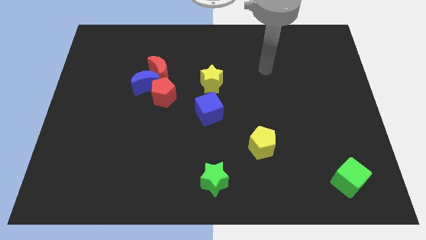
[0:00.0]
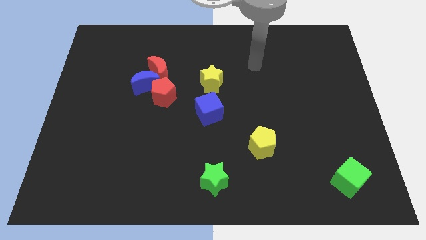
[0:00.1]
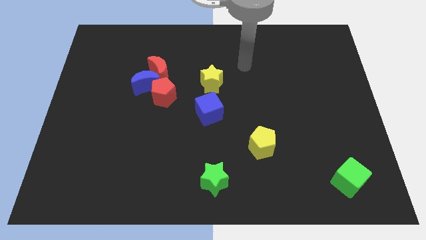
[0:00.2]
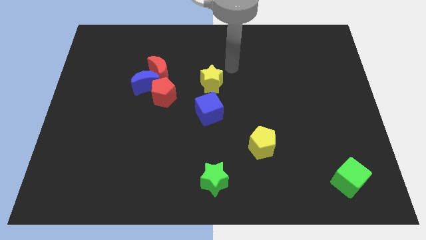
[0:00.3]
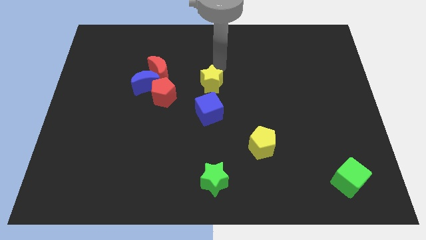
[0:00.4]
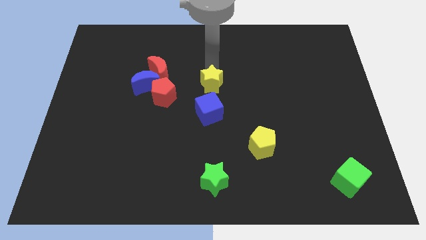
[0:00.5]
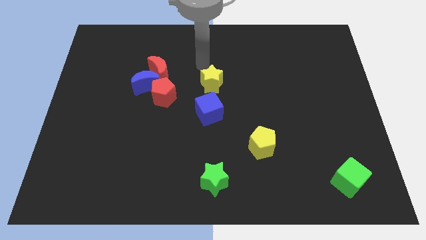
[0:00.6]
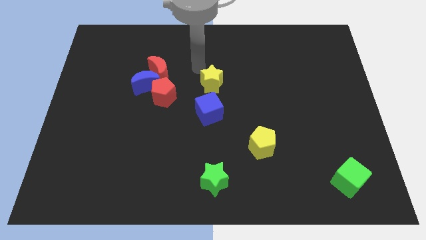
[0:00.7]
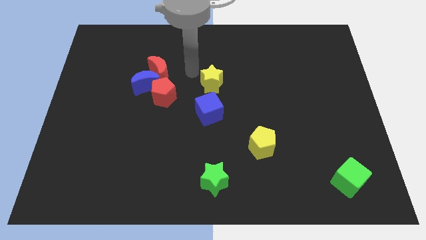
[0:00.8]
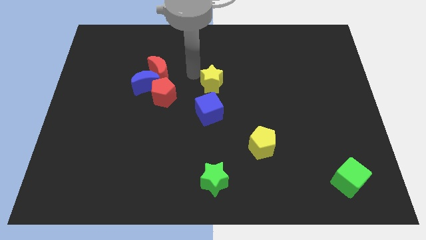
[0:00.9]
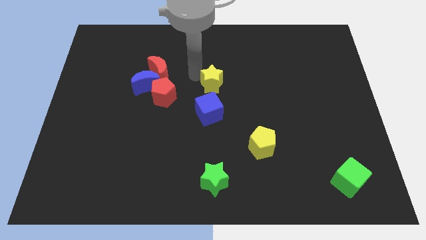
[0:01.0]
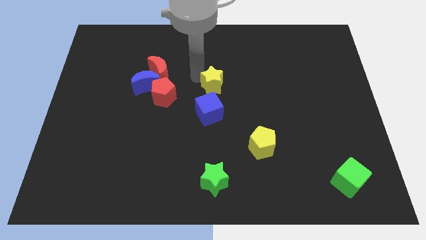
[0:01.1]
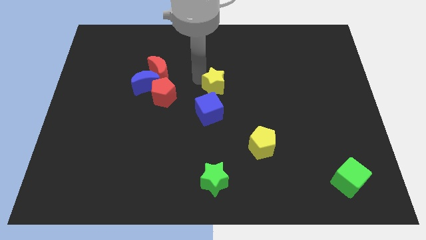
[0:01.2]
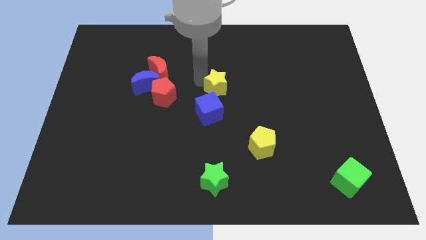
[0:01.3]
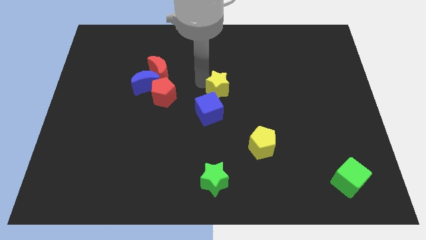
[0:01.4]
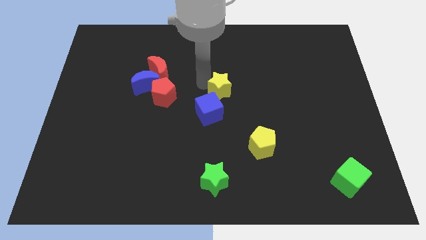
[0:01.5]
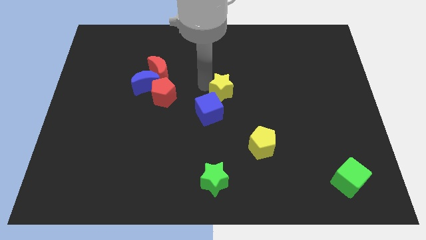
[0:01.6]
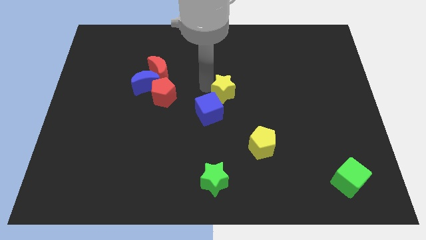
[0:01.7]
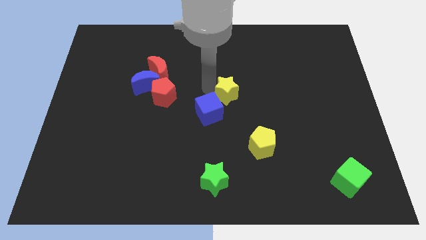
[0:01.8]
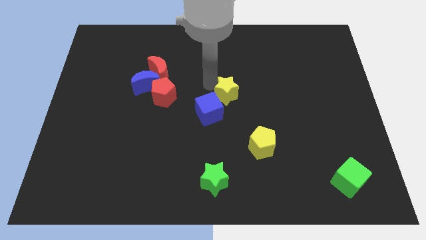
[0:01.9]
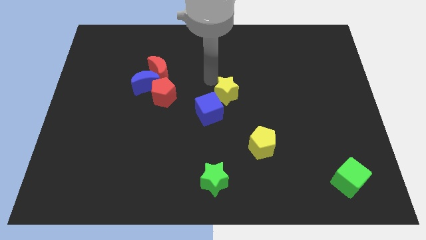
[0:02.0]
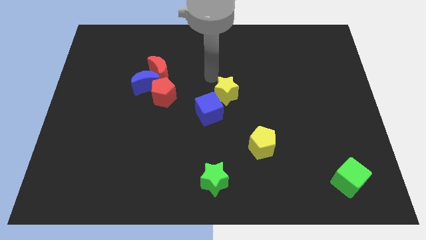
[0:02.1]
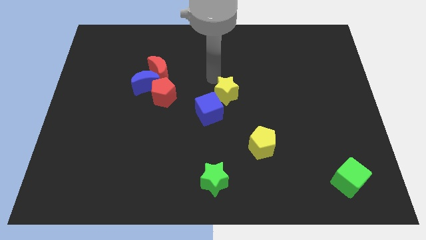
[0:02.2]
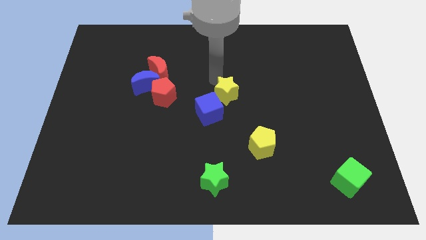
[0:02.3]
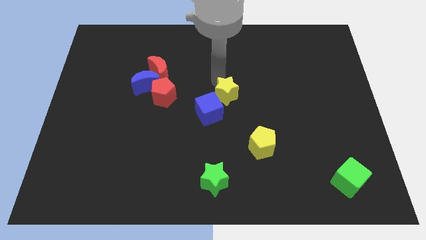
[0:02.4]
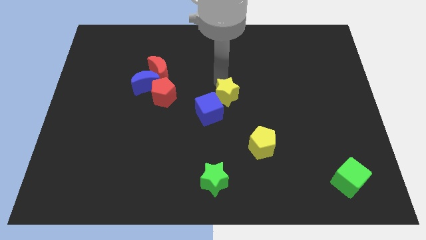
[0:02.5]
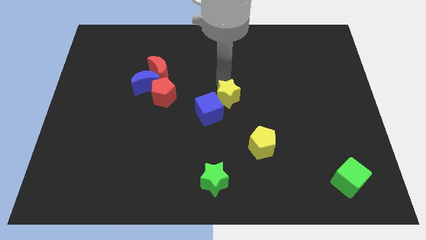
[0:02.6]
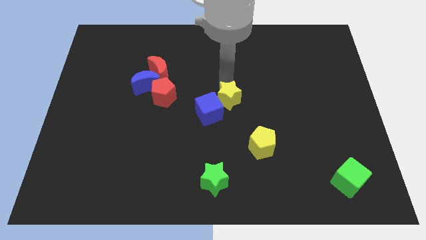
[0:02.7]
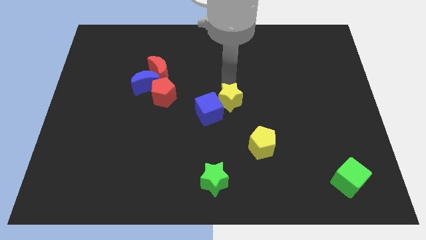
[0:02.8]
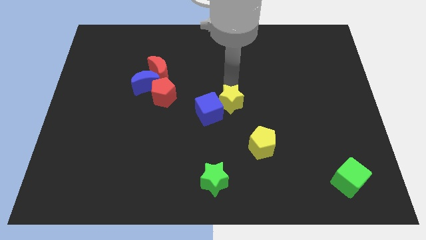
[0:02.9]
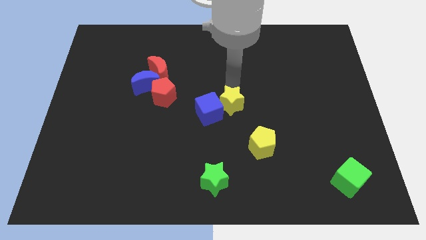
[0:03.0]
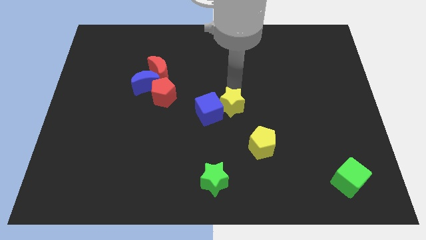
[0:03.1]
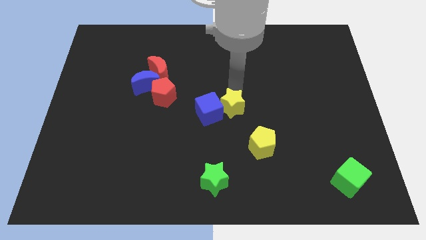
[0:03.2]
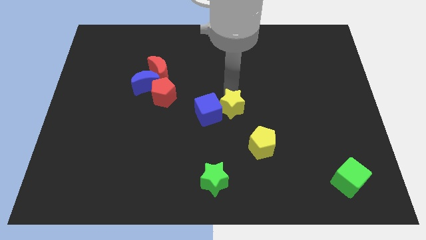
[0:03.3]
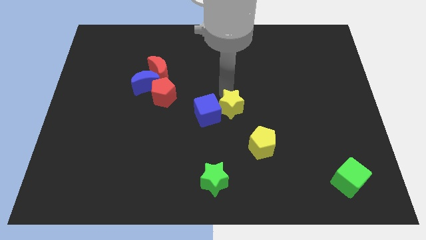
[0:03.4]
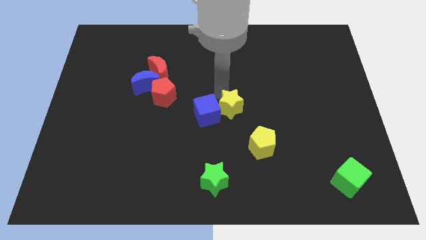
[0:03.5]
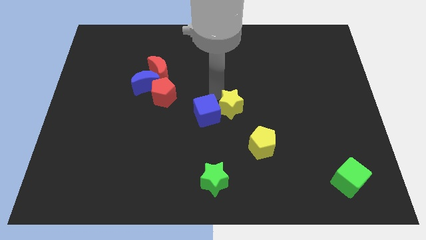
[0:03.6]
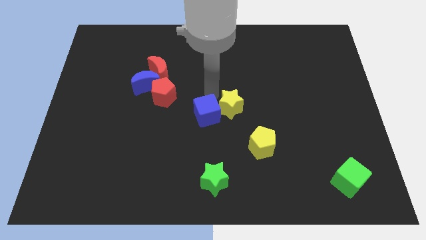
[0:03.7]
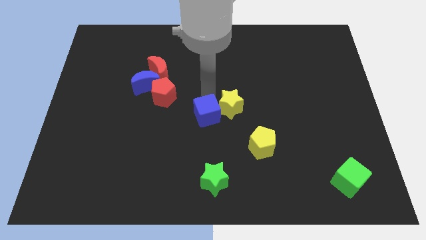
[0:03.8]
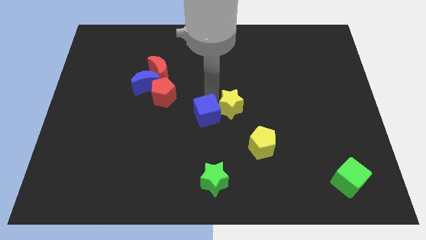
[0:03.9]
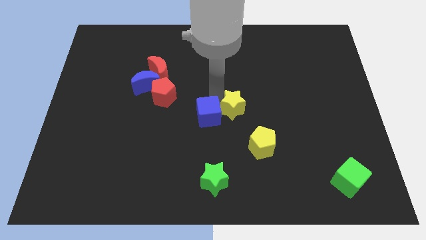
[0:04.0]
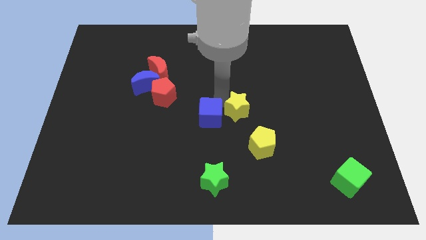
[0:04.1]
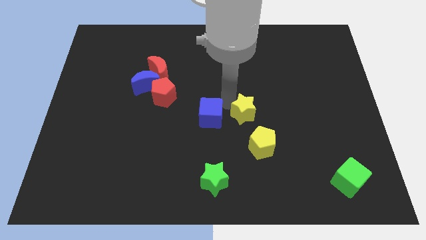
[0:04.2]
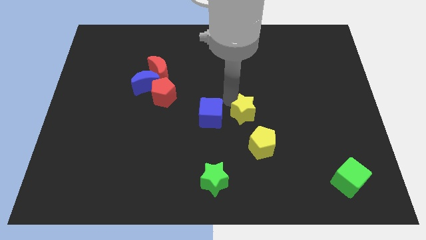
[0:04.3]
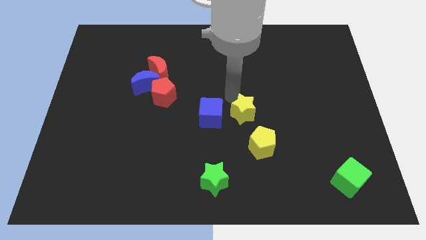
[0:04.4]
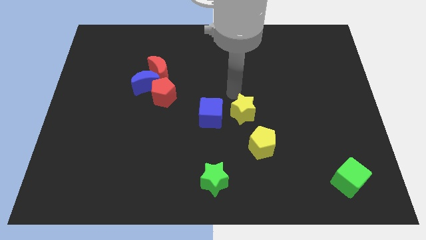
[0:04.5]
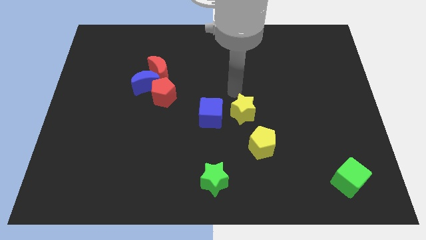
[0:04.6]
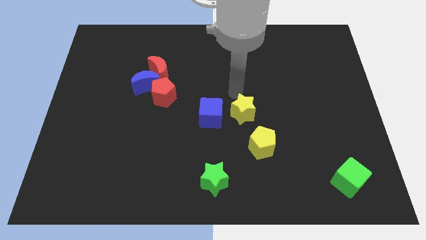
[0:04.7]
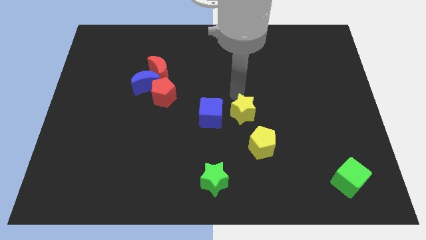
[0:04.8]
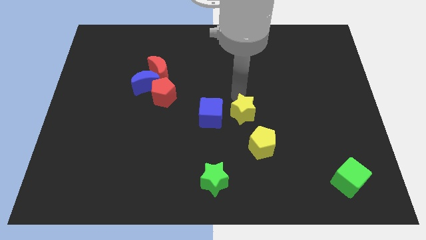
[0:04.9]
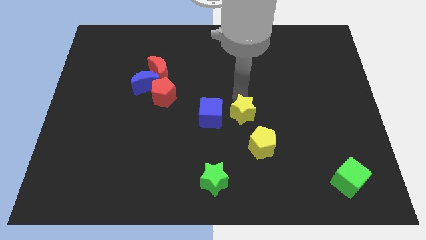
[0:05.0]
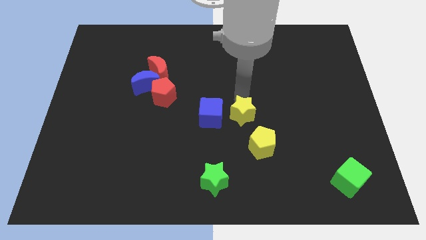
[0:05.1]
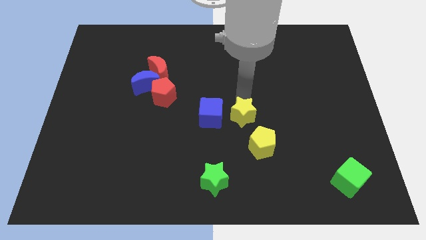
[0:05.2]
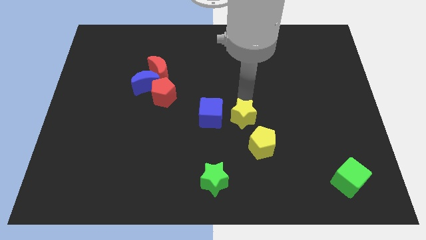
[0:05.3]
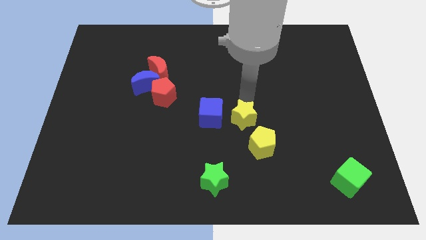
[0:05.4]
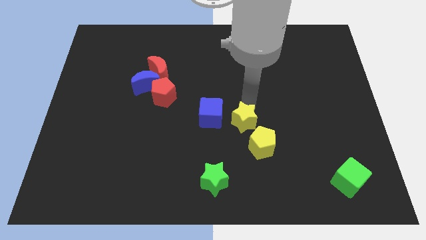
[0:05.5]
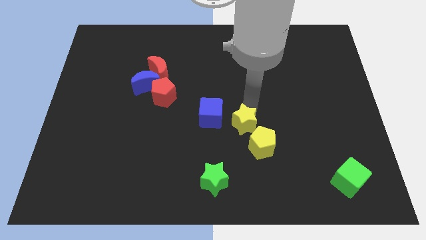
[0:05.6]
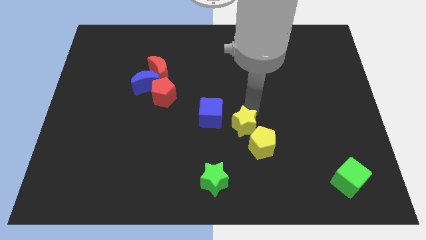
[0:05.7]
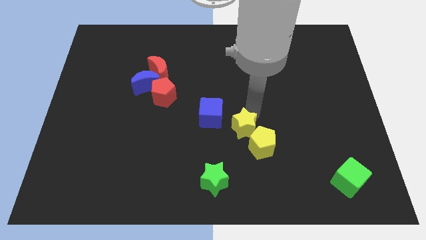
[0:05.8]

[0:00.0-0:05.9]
slide the yellow star towards the yellow pentagon

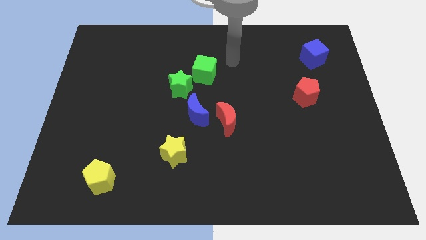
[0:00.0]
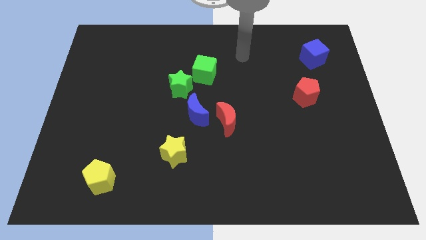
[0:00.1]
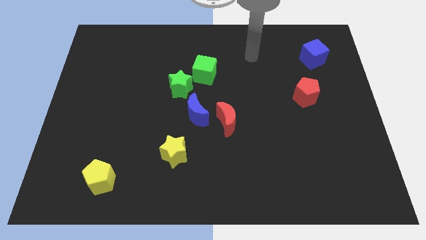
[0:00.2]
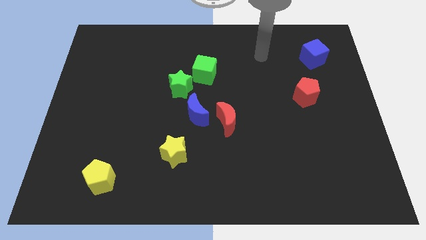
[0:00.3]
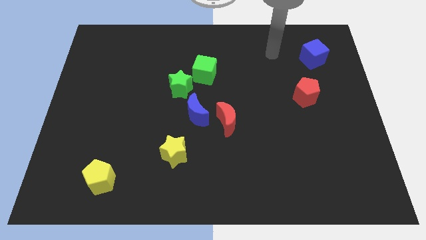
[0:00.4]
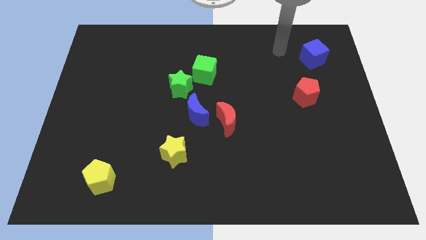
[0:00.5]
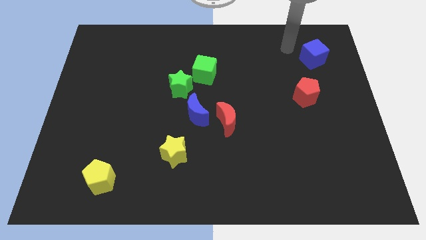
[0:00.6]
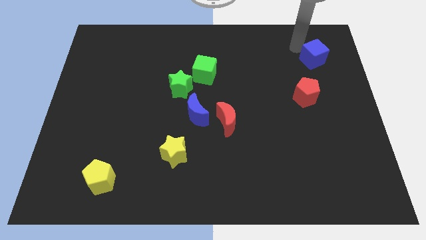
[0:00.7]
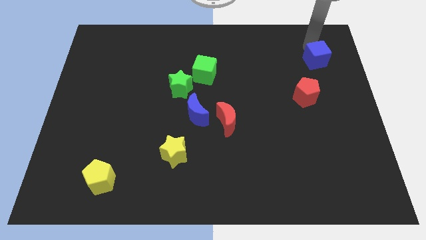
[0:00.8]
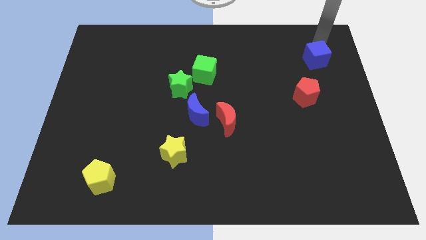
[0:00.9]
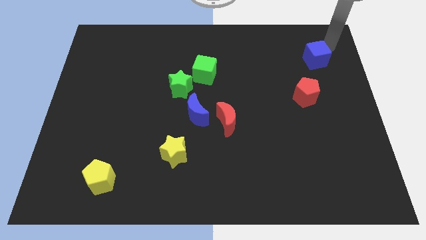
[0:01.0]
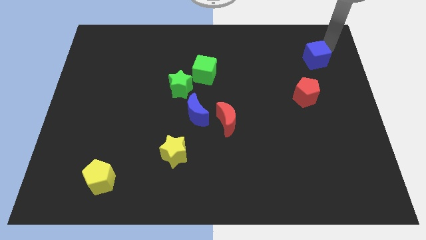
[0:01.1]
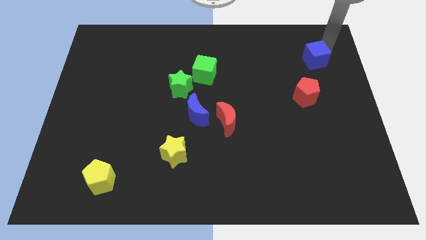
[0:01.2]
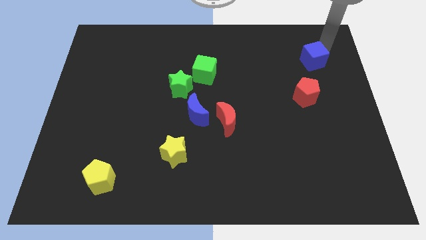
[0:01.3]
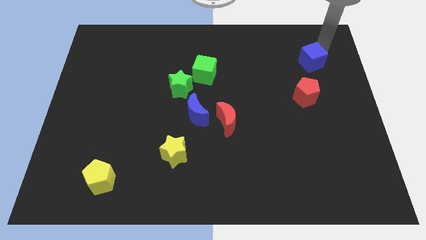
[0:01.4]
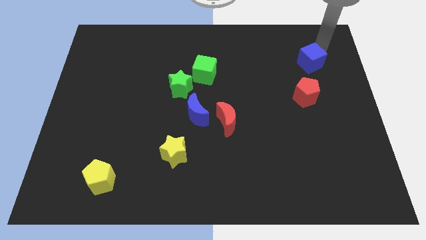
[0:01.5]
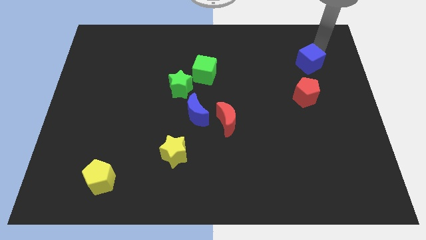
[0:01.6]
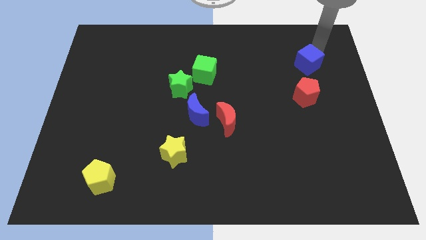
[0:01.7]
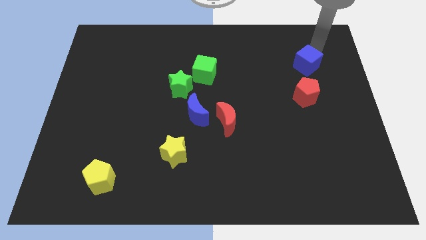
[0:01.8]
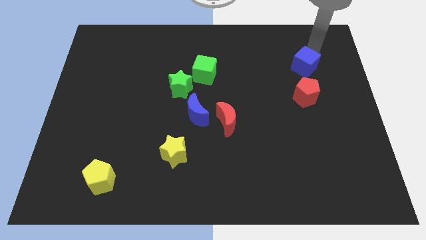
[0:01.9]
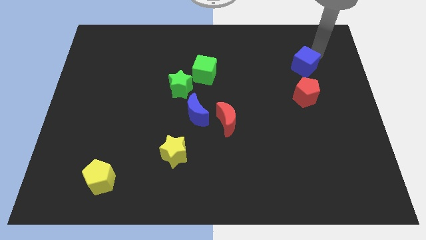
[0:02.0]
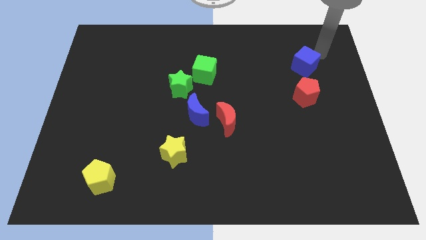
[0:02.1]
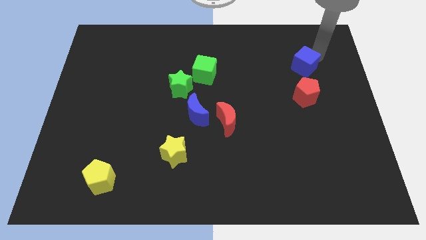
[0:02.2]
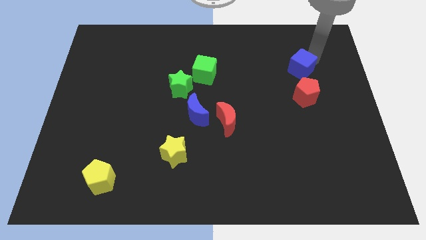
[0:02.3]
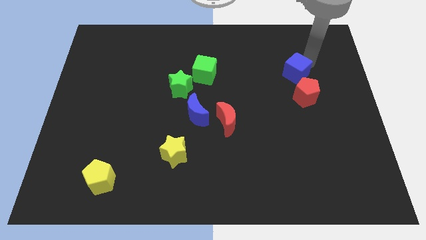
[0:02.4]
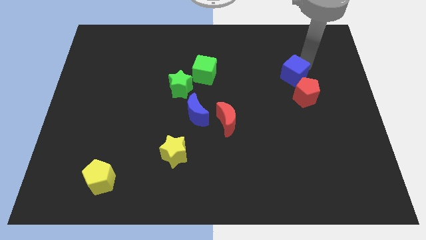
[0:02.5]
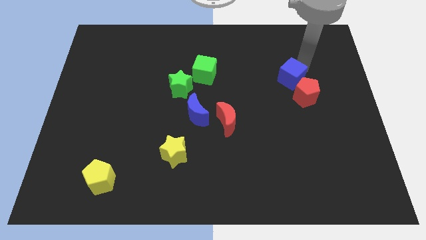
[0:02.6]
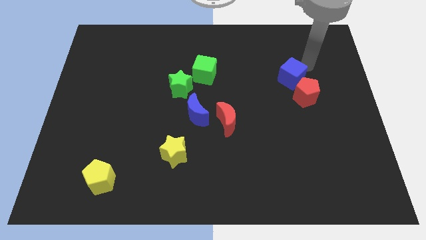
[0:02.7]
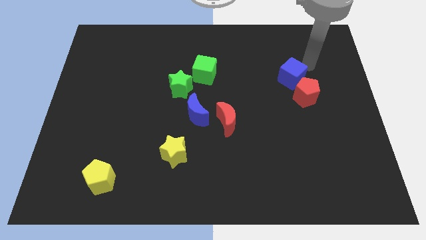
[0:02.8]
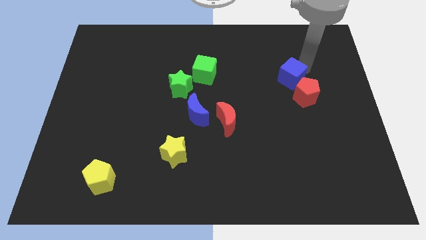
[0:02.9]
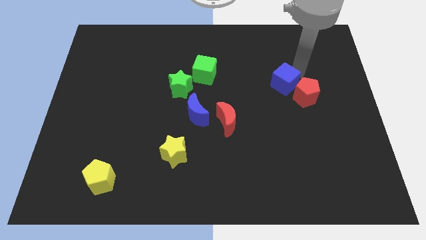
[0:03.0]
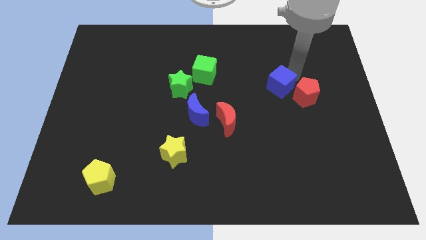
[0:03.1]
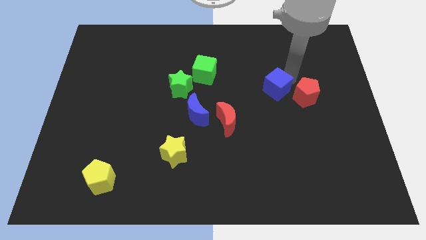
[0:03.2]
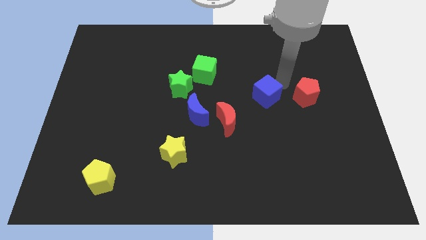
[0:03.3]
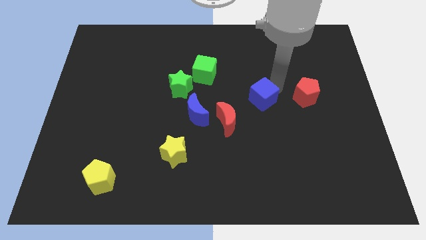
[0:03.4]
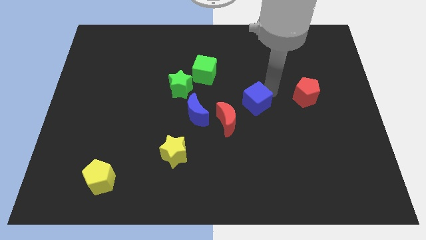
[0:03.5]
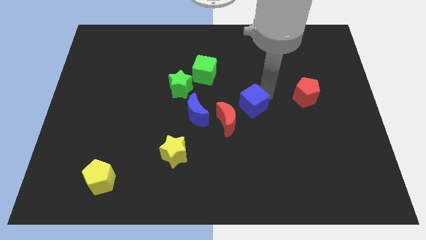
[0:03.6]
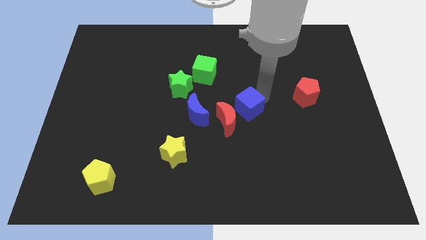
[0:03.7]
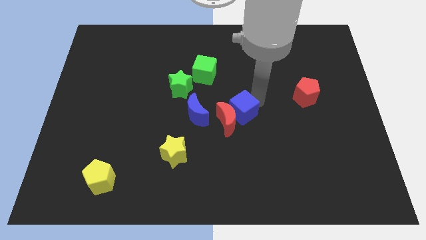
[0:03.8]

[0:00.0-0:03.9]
put the blue cube next to the red moon
